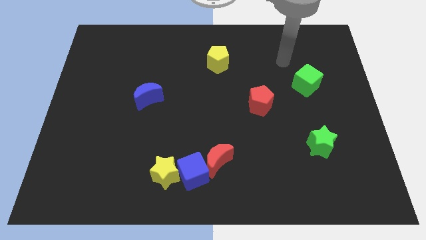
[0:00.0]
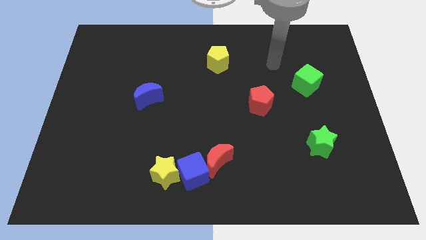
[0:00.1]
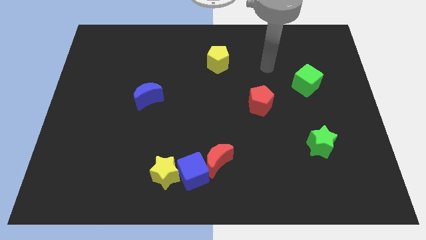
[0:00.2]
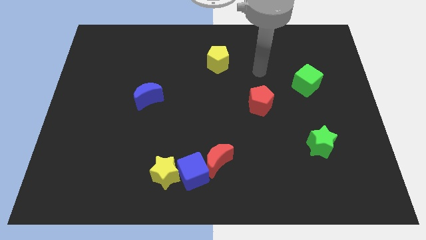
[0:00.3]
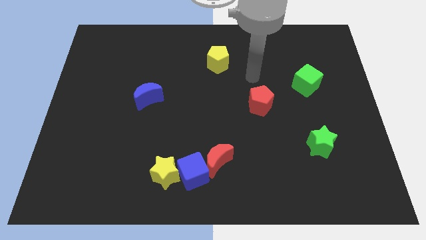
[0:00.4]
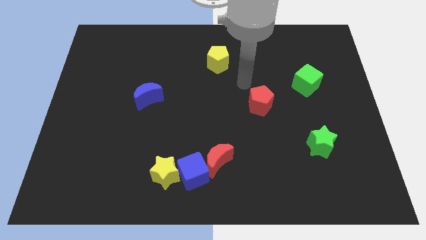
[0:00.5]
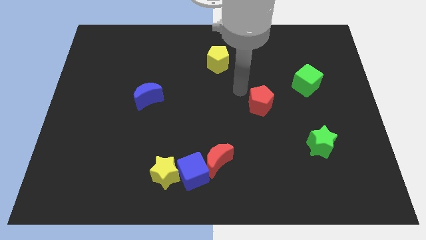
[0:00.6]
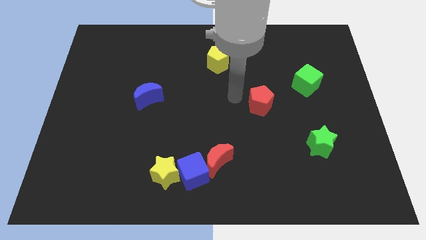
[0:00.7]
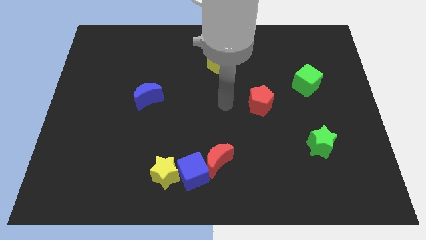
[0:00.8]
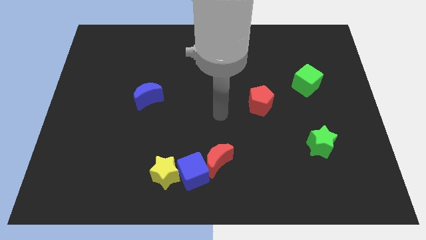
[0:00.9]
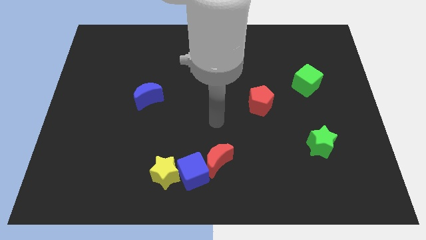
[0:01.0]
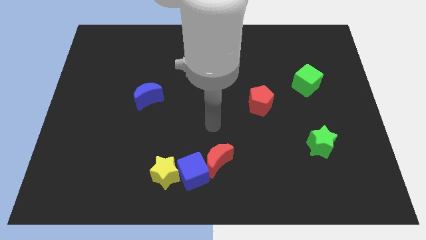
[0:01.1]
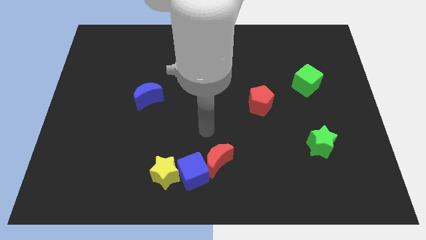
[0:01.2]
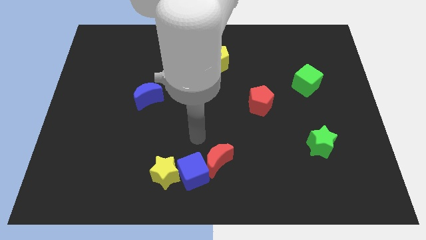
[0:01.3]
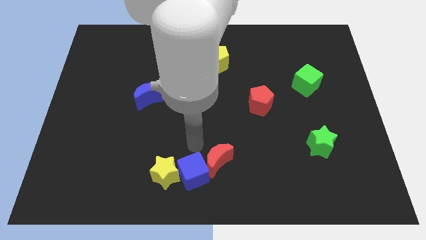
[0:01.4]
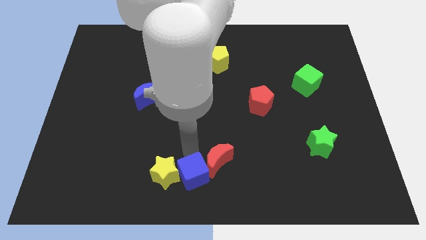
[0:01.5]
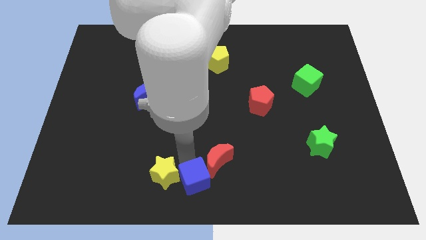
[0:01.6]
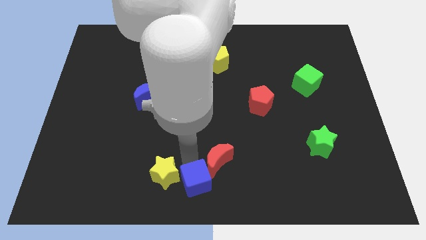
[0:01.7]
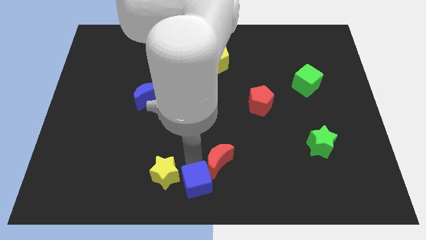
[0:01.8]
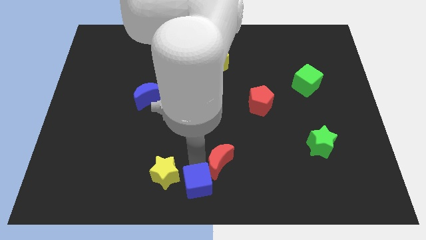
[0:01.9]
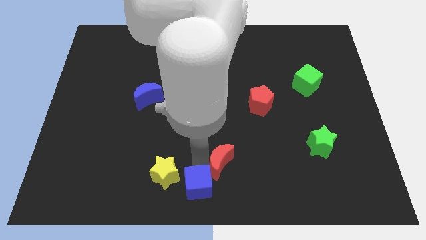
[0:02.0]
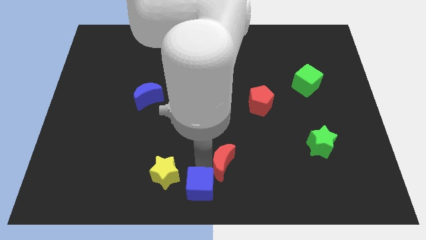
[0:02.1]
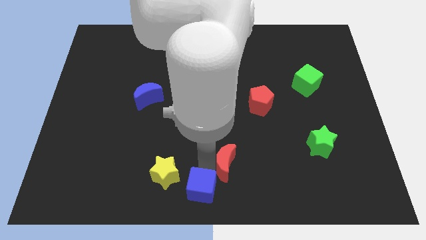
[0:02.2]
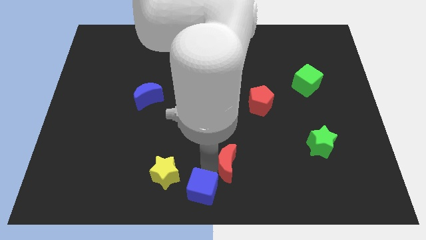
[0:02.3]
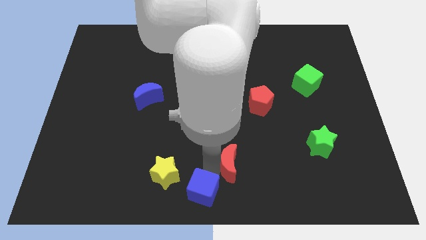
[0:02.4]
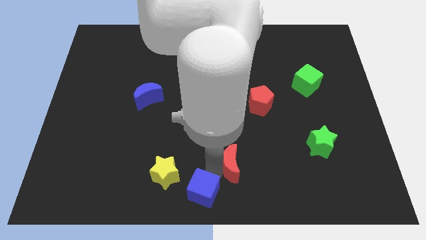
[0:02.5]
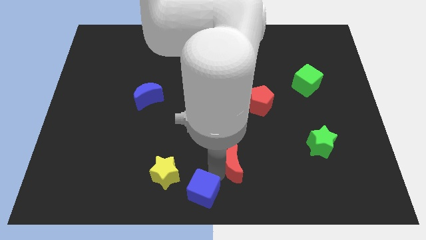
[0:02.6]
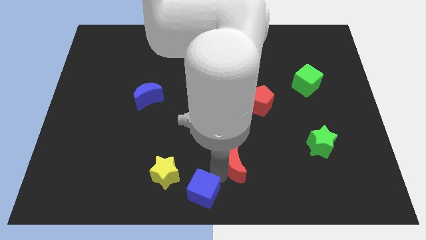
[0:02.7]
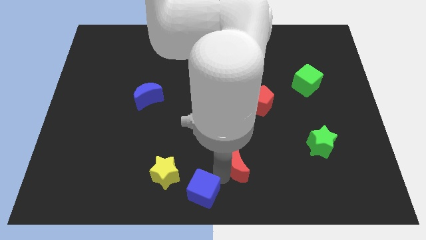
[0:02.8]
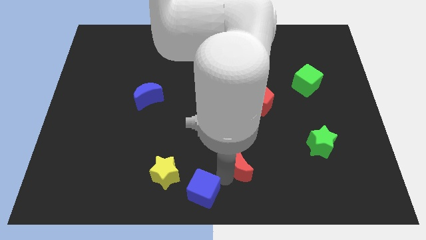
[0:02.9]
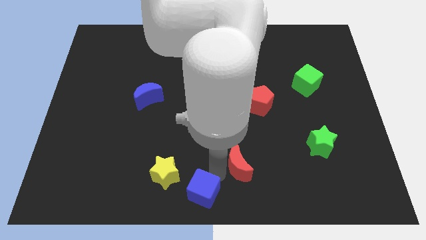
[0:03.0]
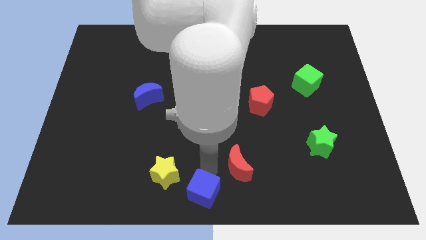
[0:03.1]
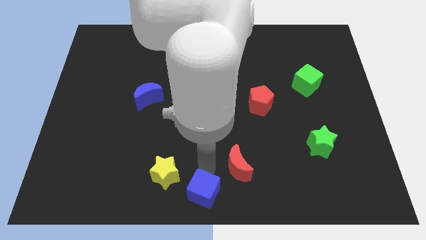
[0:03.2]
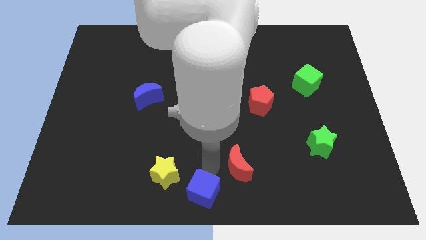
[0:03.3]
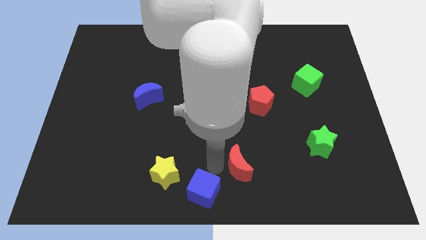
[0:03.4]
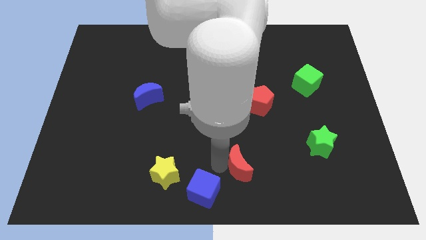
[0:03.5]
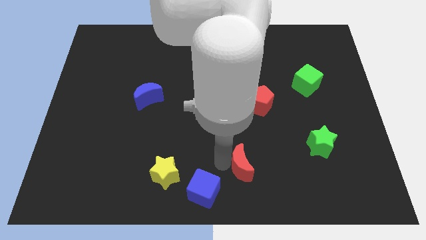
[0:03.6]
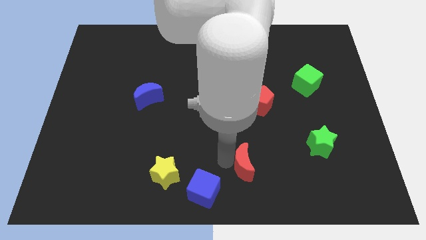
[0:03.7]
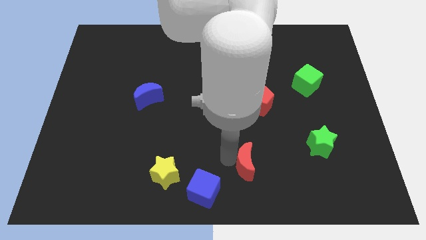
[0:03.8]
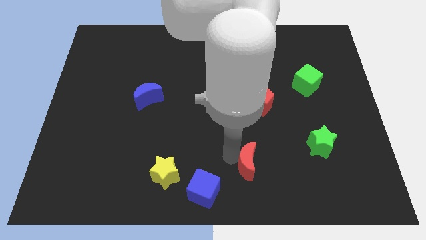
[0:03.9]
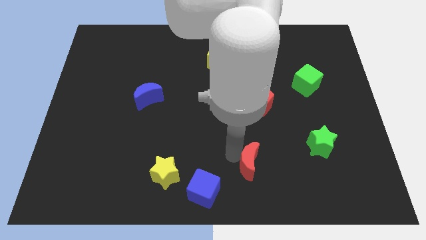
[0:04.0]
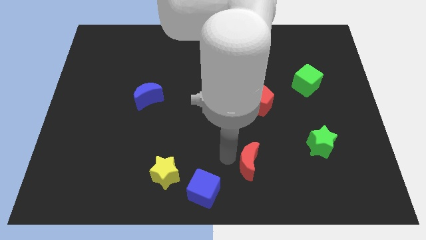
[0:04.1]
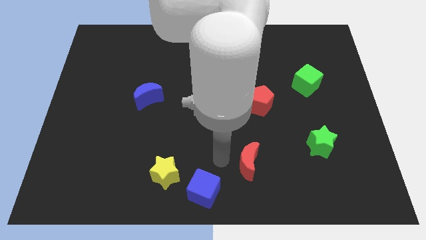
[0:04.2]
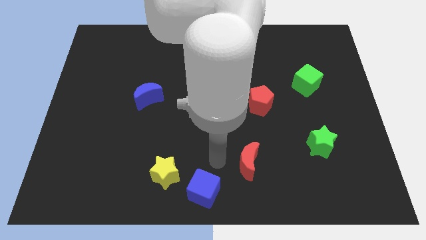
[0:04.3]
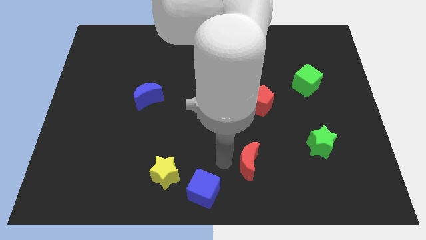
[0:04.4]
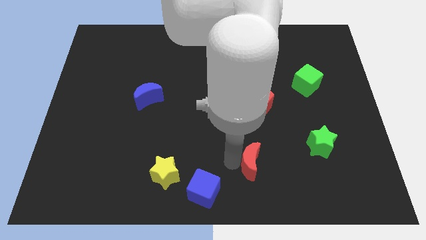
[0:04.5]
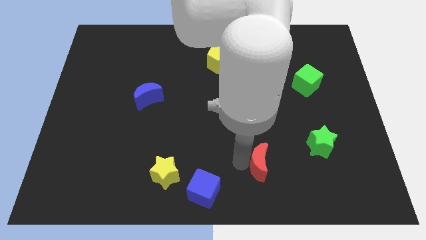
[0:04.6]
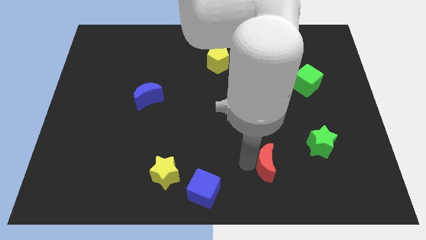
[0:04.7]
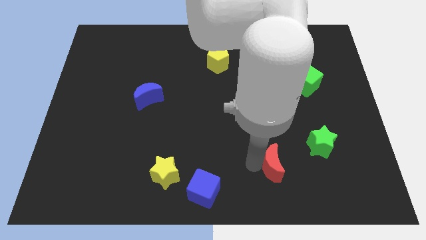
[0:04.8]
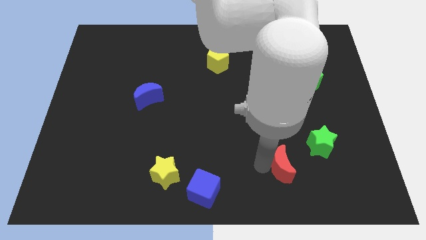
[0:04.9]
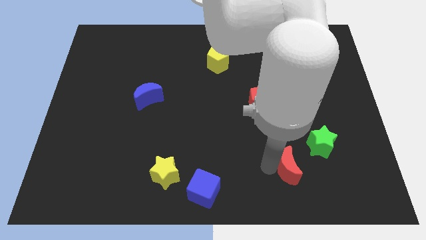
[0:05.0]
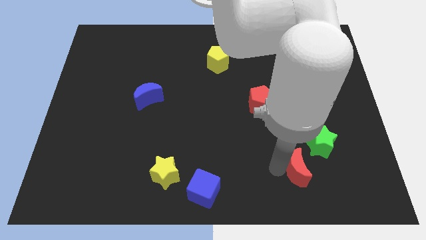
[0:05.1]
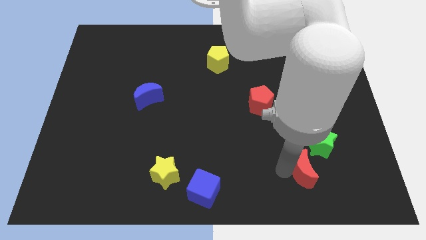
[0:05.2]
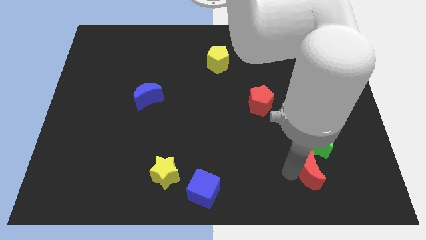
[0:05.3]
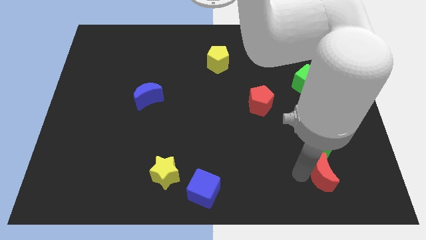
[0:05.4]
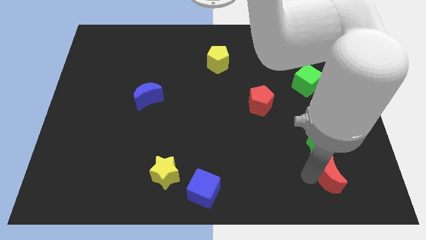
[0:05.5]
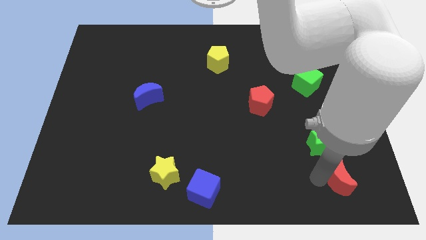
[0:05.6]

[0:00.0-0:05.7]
move the red moon to the bottom right of the green star

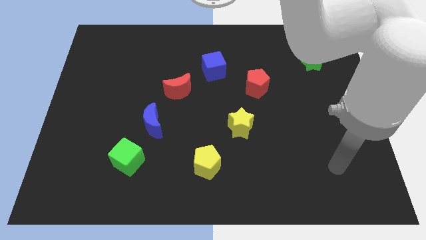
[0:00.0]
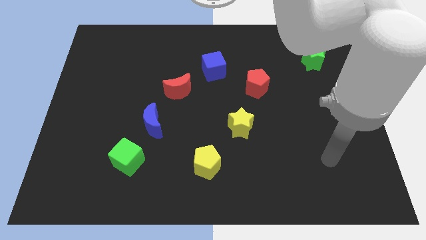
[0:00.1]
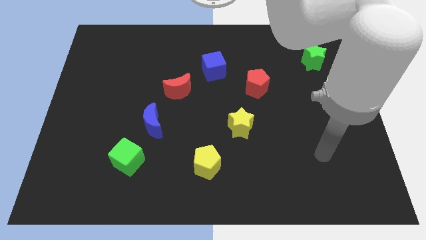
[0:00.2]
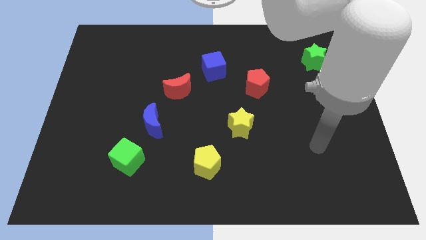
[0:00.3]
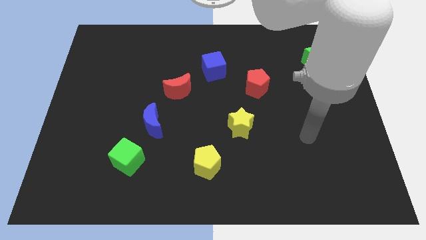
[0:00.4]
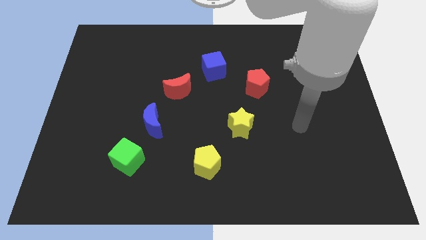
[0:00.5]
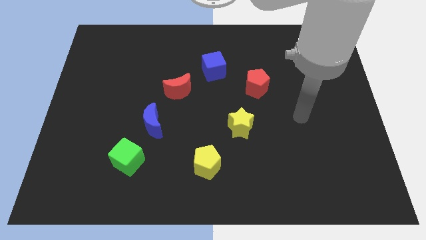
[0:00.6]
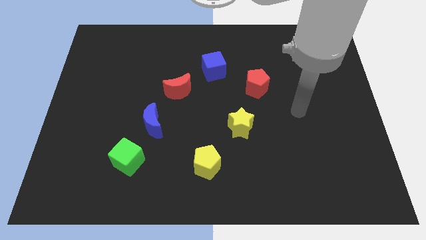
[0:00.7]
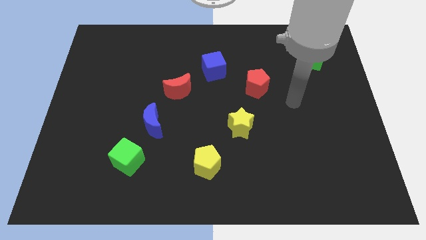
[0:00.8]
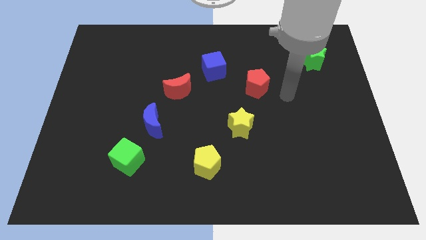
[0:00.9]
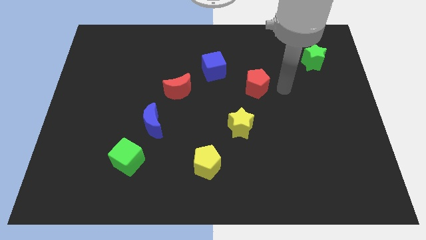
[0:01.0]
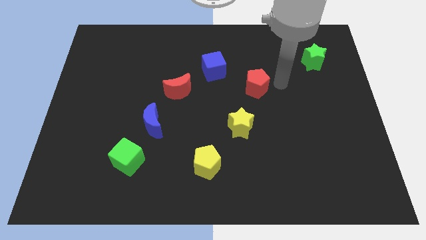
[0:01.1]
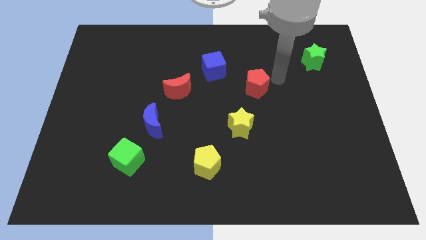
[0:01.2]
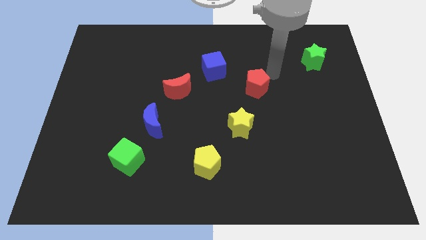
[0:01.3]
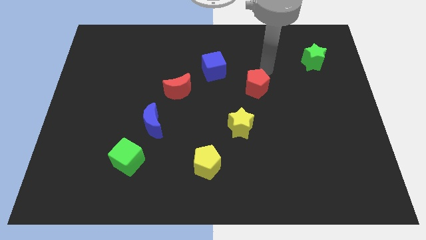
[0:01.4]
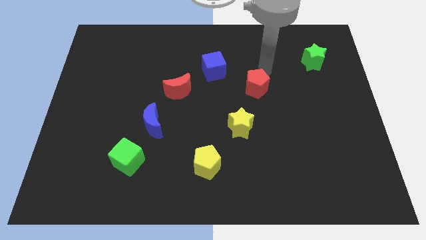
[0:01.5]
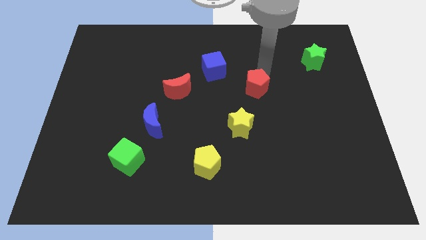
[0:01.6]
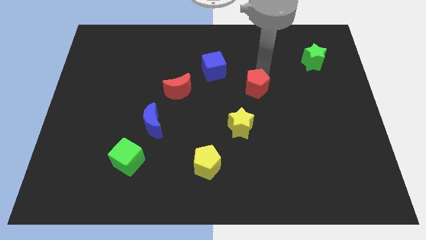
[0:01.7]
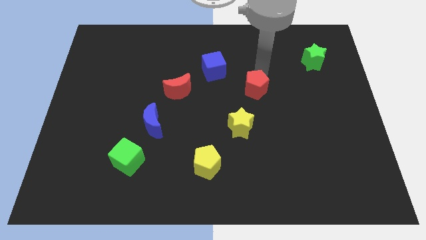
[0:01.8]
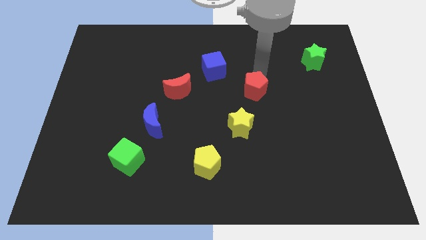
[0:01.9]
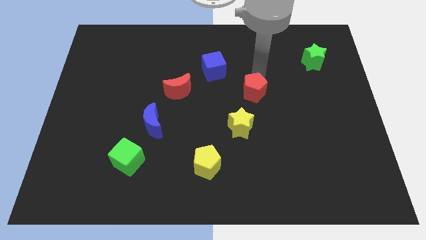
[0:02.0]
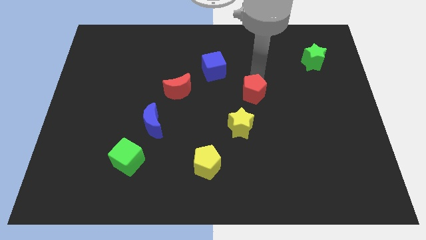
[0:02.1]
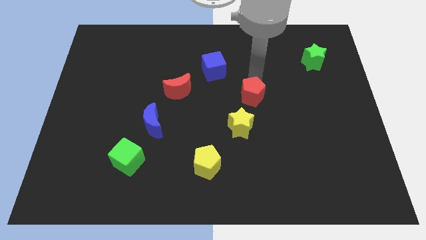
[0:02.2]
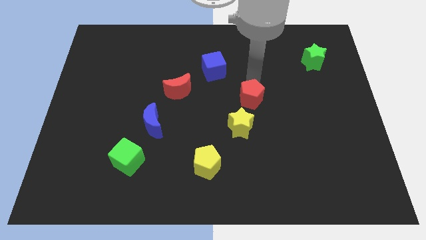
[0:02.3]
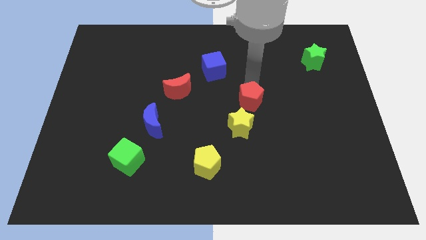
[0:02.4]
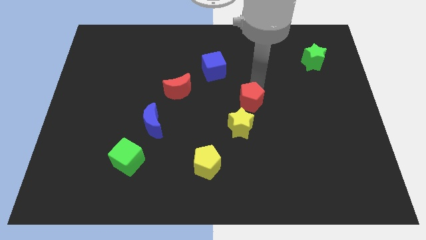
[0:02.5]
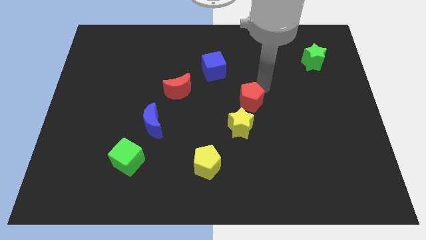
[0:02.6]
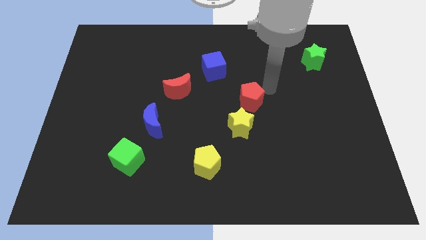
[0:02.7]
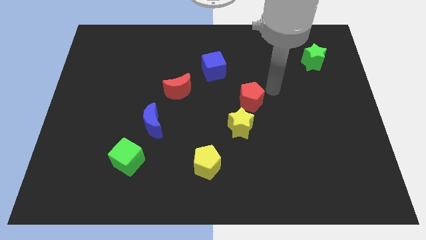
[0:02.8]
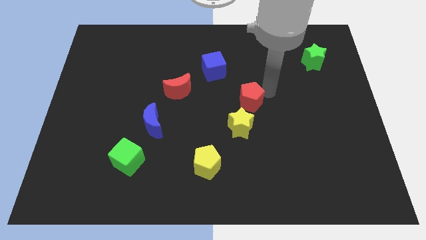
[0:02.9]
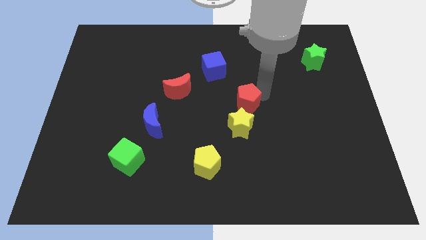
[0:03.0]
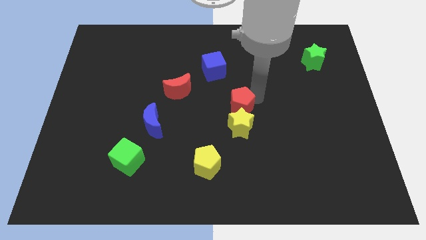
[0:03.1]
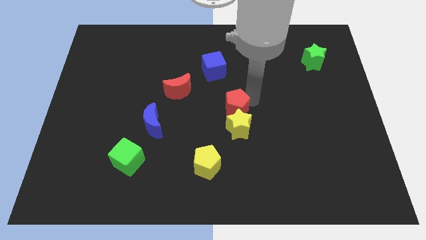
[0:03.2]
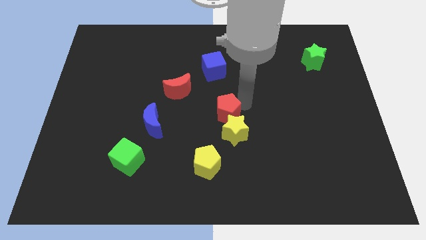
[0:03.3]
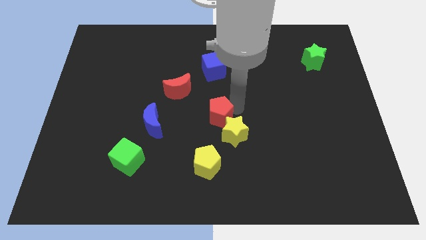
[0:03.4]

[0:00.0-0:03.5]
put the red pentagon to the right of the blue moon
